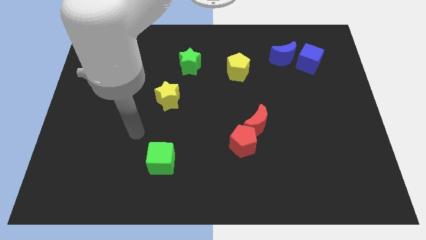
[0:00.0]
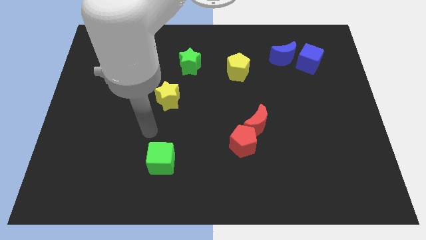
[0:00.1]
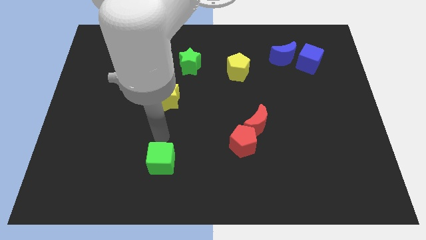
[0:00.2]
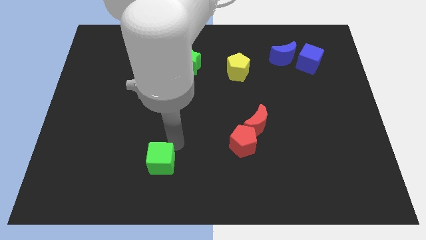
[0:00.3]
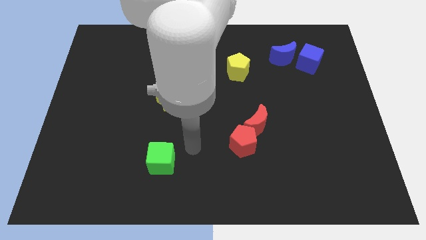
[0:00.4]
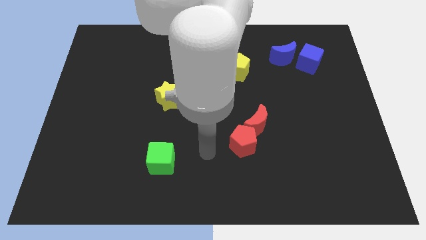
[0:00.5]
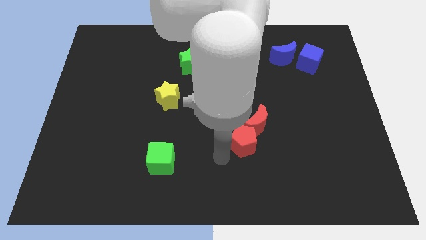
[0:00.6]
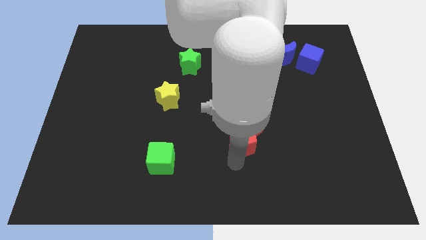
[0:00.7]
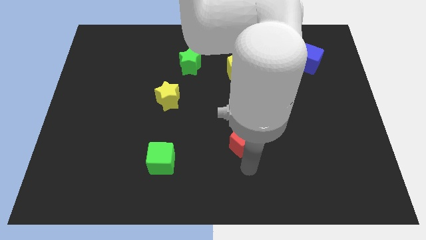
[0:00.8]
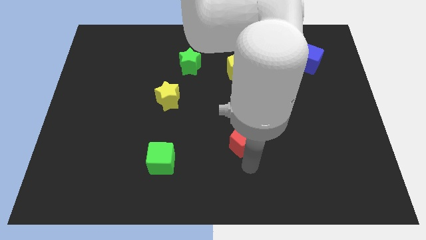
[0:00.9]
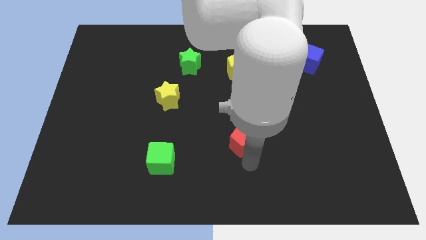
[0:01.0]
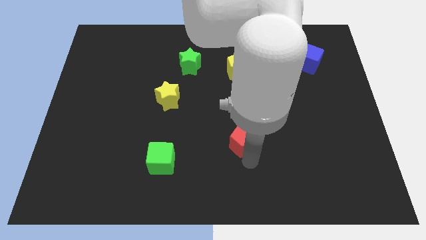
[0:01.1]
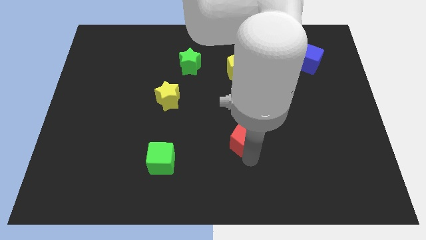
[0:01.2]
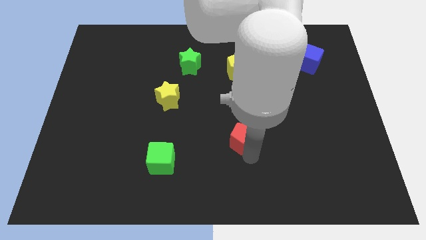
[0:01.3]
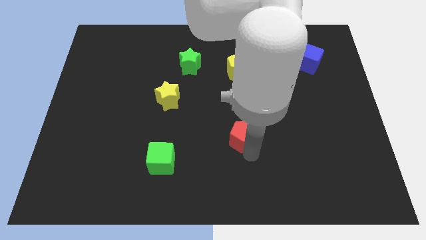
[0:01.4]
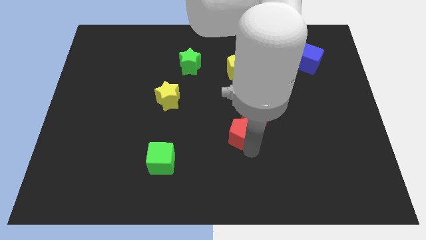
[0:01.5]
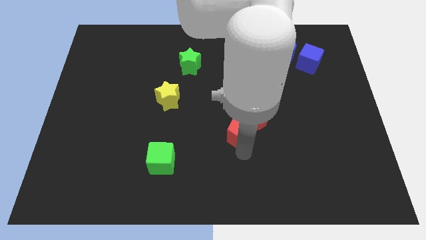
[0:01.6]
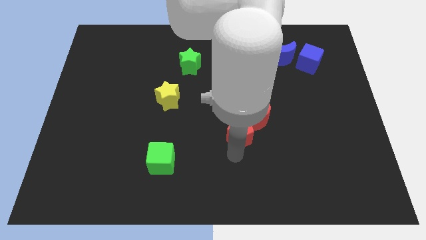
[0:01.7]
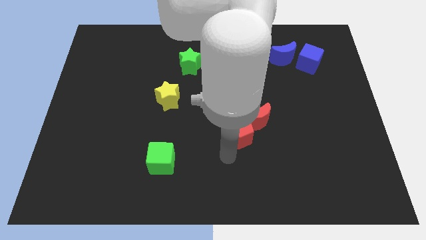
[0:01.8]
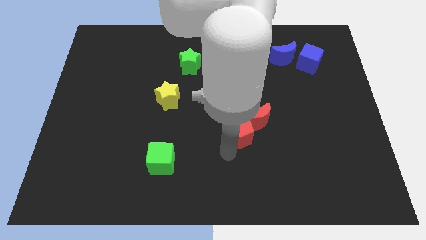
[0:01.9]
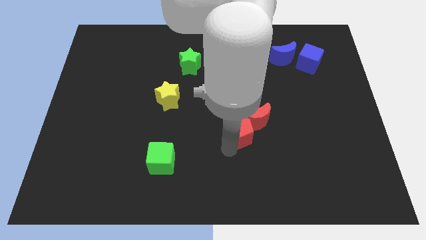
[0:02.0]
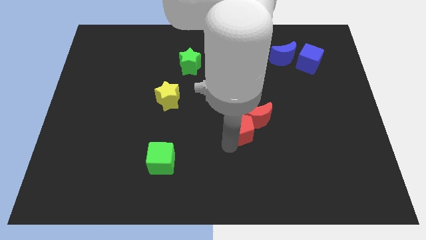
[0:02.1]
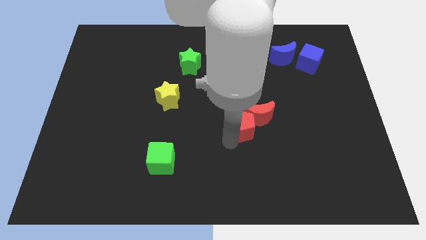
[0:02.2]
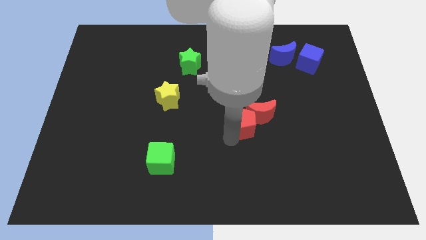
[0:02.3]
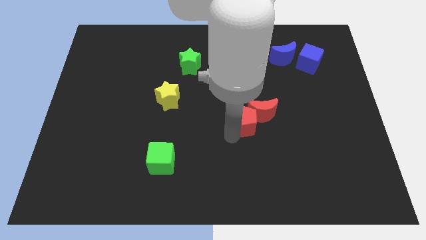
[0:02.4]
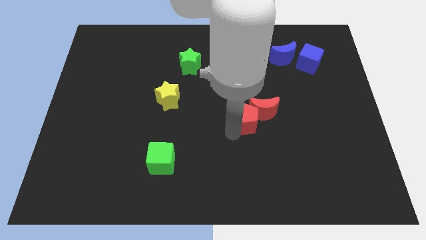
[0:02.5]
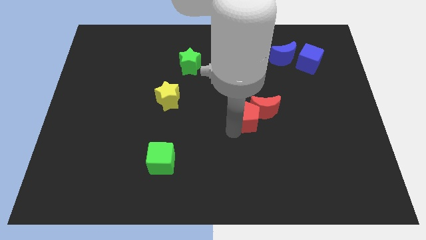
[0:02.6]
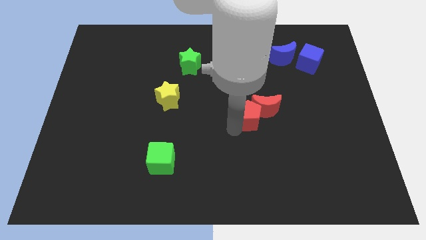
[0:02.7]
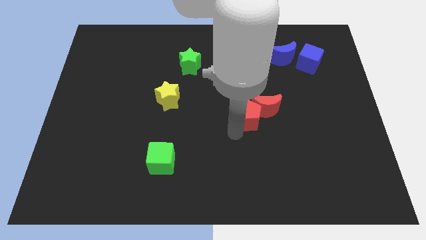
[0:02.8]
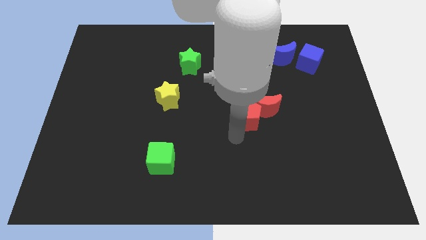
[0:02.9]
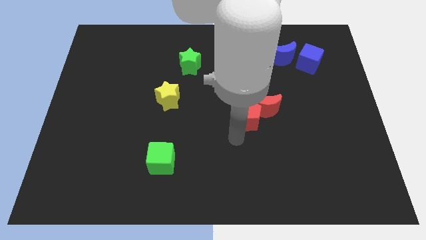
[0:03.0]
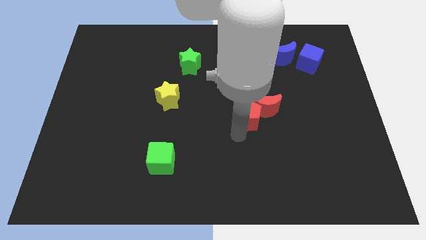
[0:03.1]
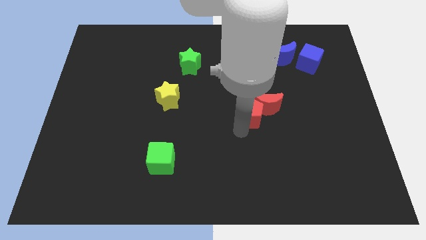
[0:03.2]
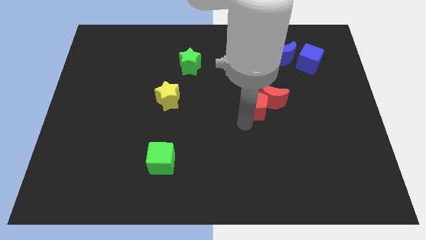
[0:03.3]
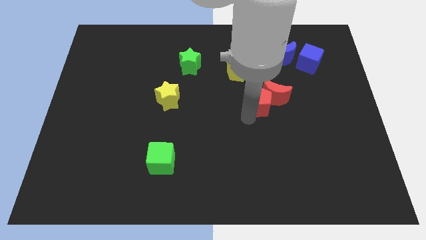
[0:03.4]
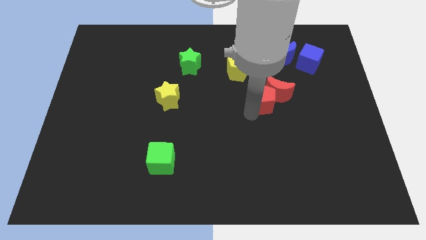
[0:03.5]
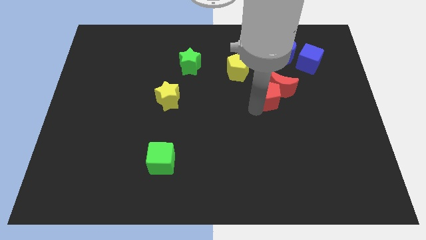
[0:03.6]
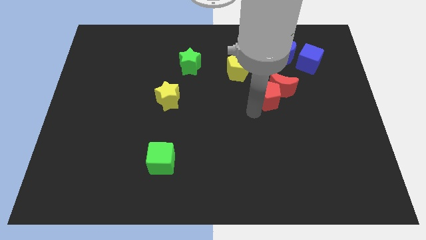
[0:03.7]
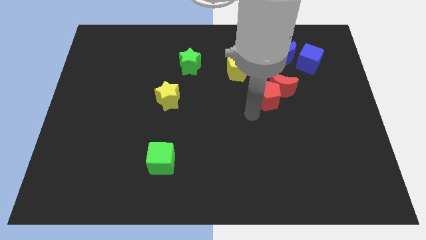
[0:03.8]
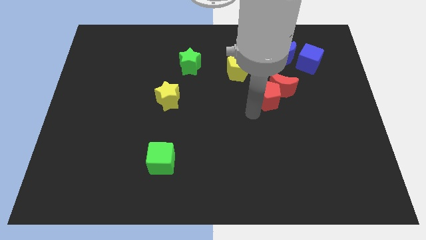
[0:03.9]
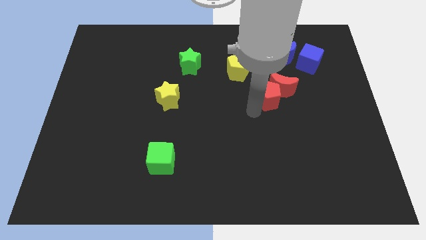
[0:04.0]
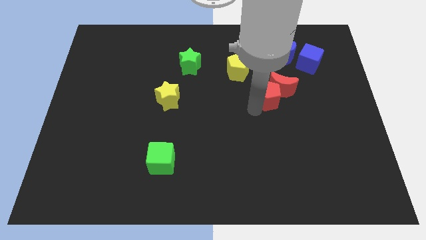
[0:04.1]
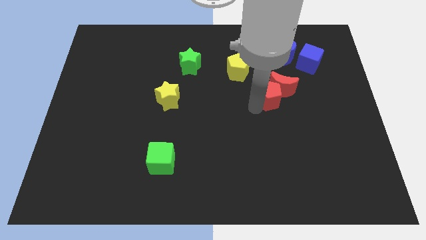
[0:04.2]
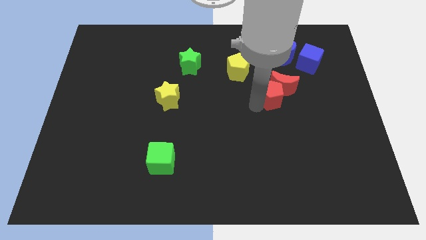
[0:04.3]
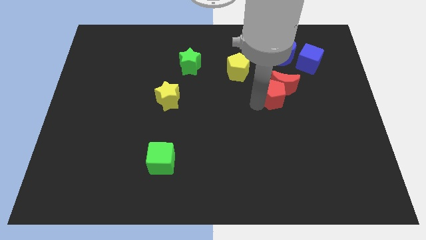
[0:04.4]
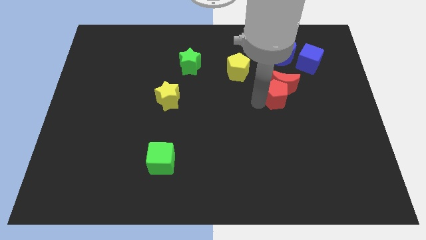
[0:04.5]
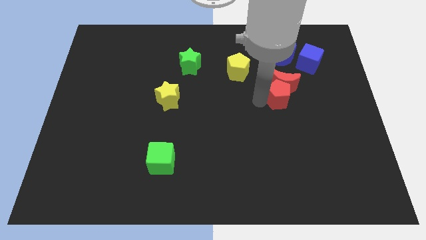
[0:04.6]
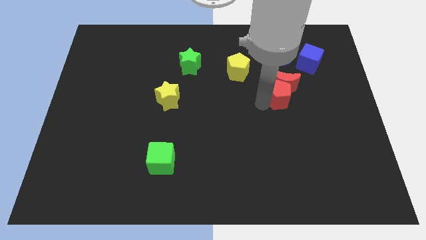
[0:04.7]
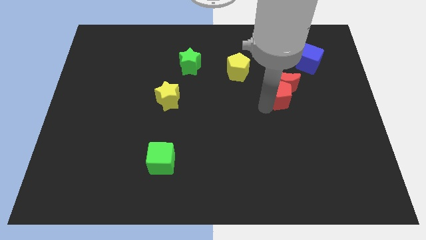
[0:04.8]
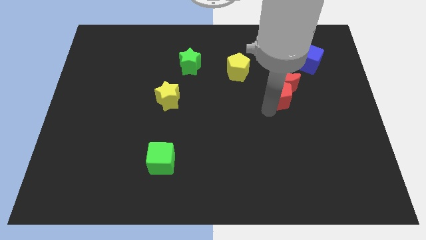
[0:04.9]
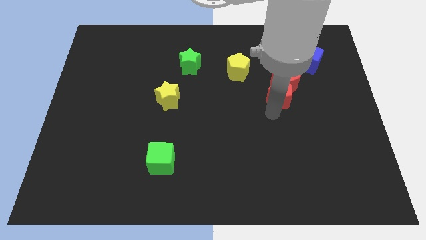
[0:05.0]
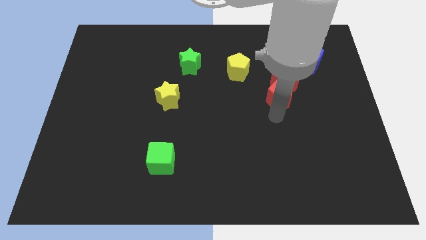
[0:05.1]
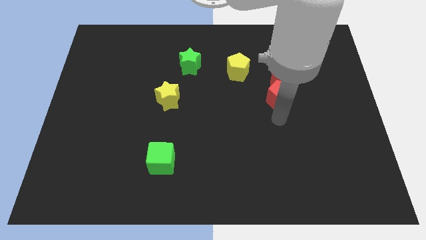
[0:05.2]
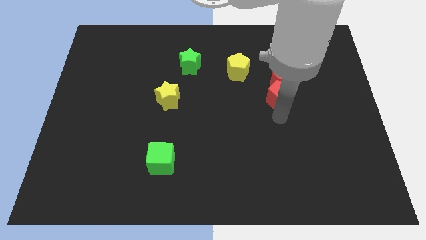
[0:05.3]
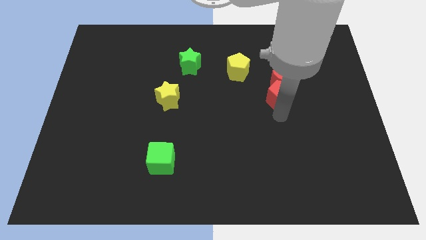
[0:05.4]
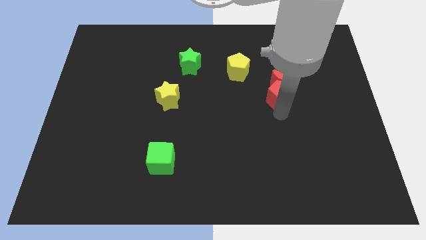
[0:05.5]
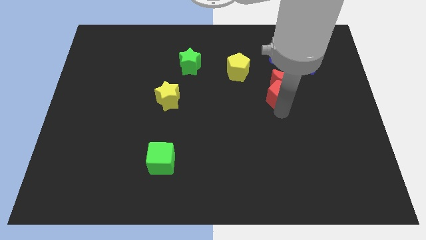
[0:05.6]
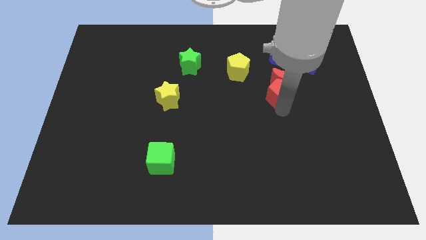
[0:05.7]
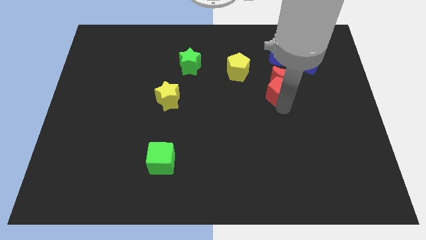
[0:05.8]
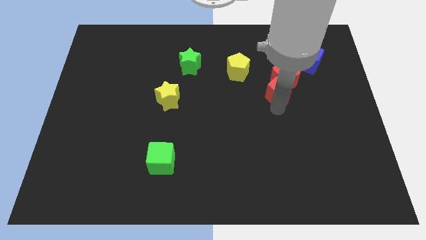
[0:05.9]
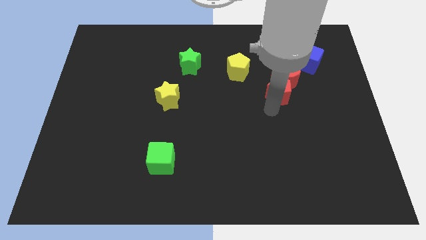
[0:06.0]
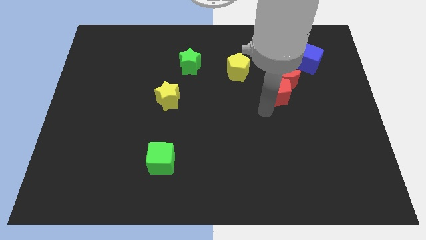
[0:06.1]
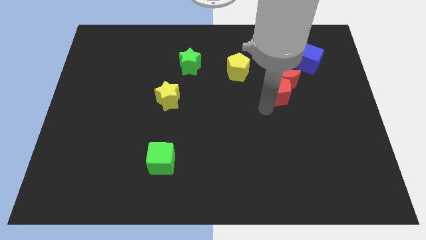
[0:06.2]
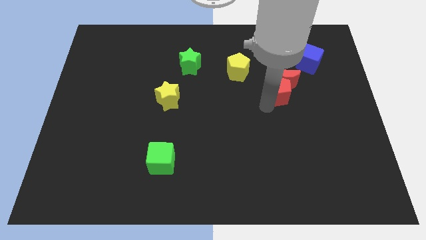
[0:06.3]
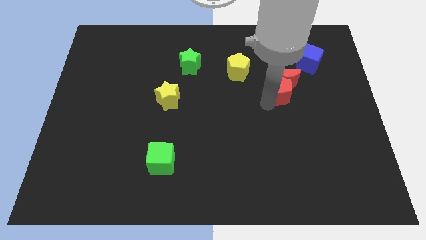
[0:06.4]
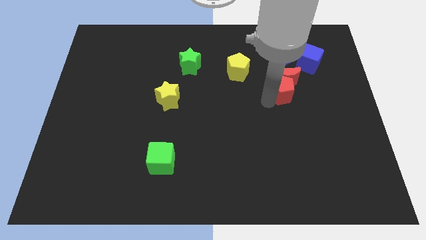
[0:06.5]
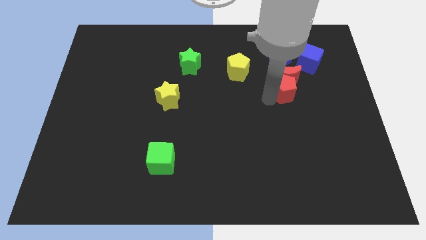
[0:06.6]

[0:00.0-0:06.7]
push the red pentagon to the bottom left of the blue cube

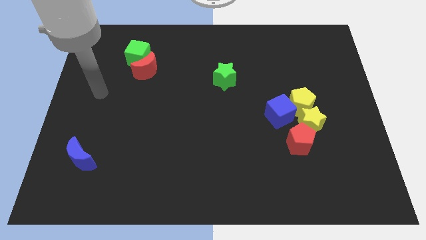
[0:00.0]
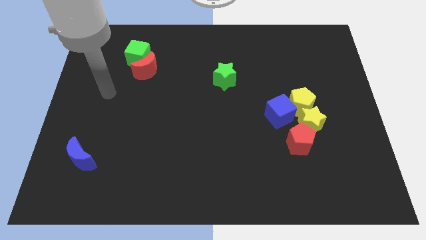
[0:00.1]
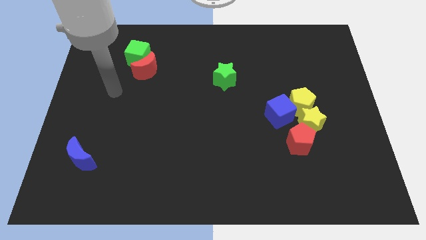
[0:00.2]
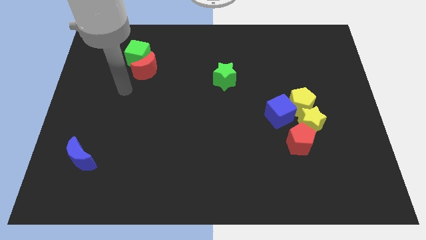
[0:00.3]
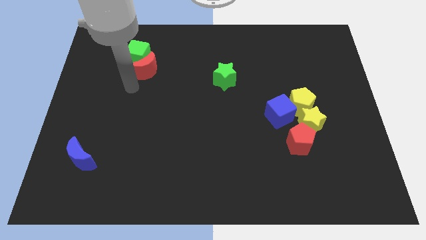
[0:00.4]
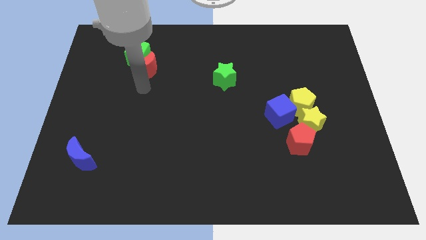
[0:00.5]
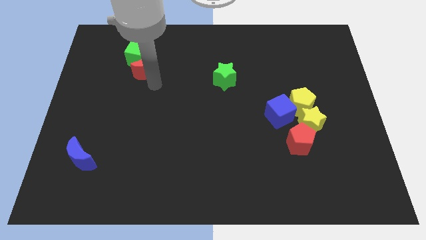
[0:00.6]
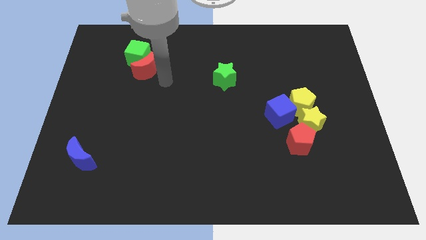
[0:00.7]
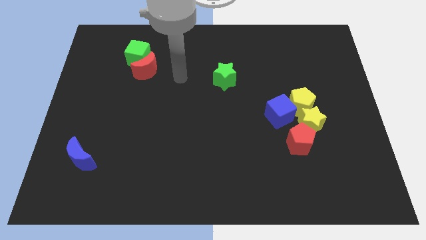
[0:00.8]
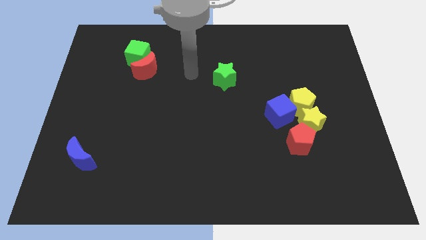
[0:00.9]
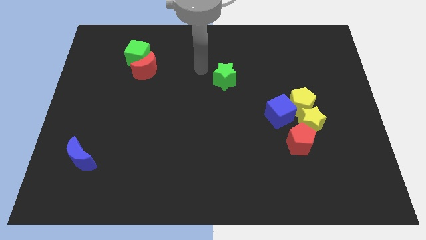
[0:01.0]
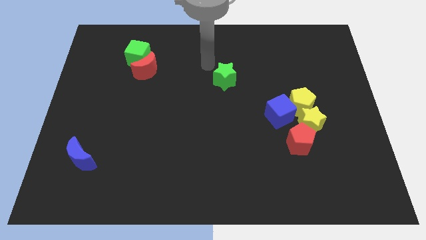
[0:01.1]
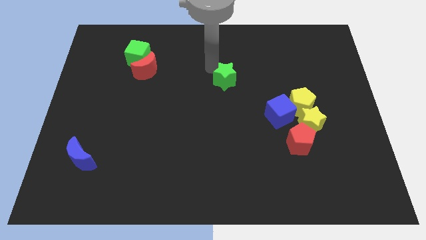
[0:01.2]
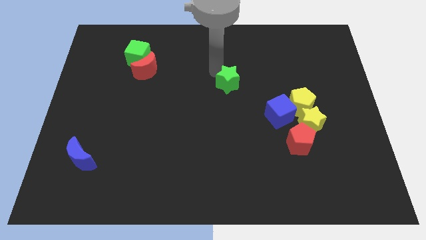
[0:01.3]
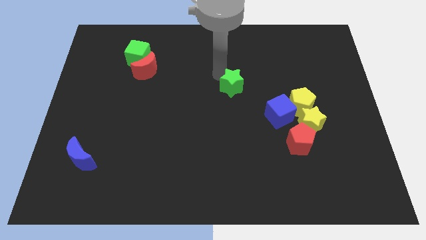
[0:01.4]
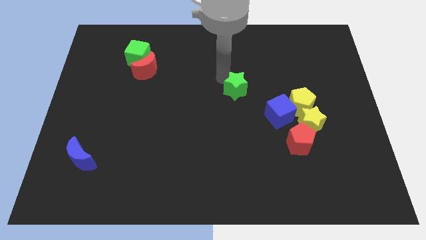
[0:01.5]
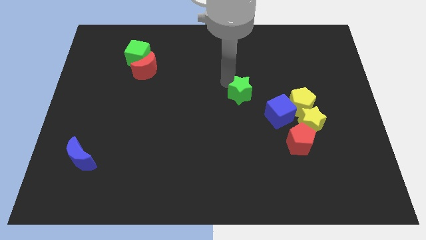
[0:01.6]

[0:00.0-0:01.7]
push the green star to the left side of the yellow pentagon

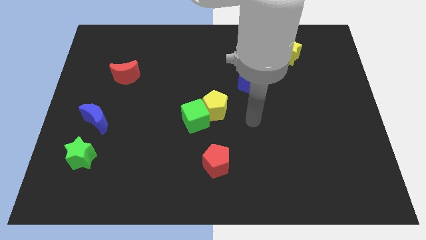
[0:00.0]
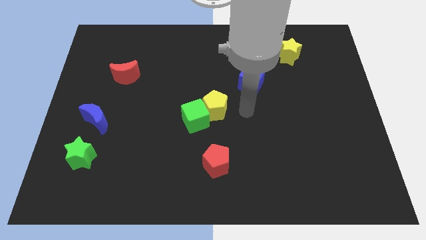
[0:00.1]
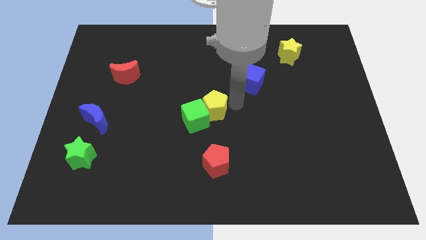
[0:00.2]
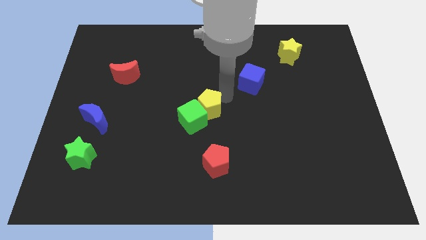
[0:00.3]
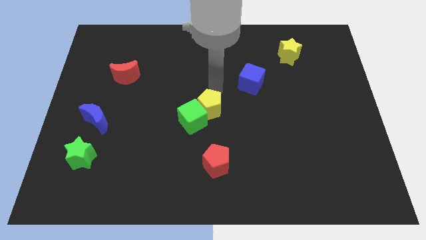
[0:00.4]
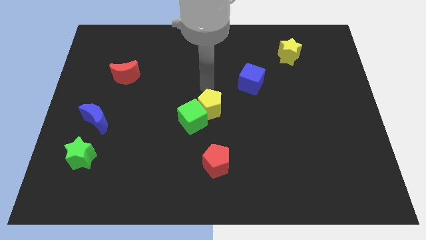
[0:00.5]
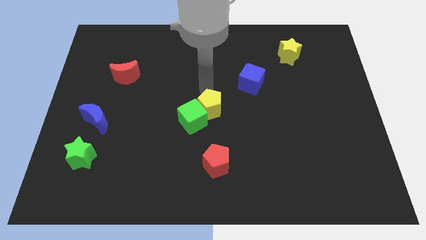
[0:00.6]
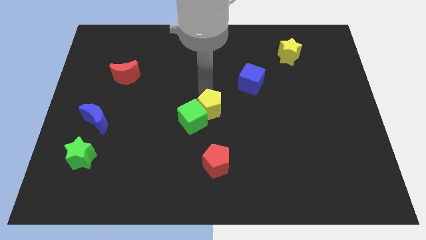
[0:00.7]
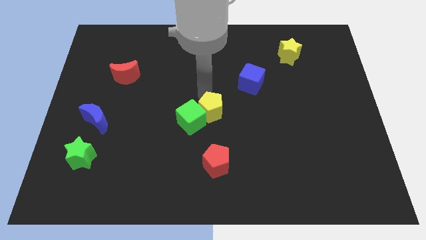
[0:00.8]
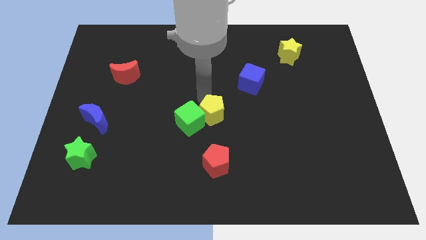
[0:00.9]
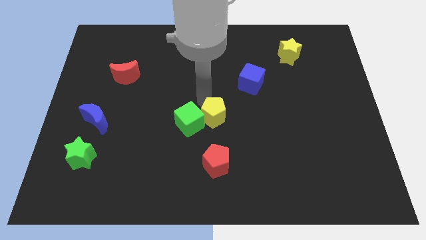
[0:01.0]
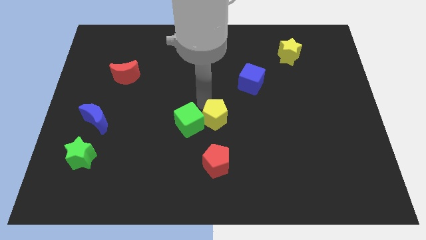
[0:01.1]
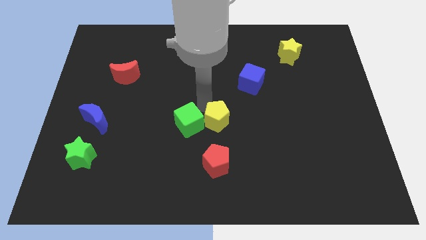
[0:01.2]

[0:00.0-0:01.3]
slide the yellow pentagon to the bottom right side of the green cube
